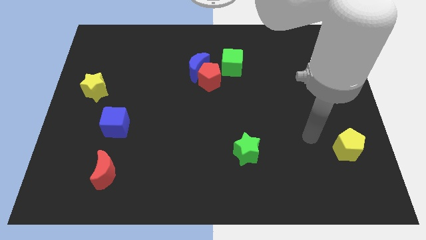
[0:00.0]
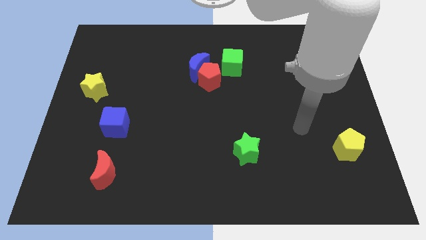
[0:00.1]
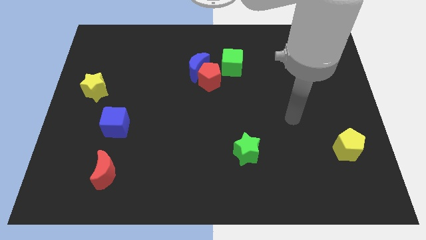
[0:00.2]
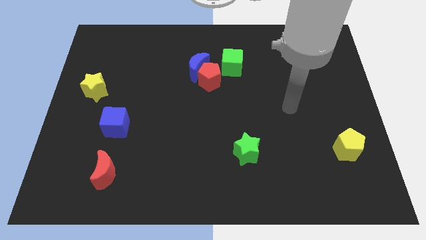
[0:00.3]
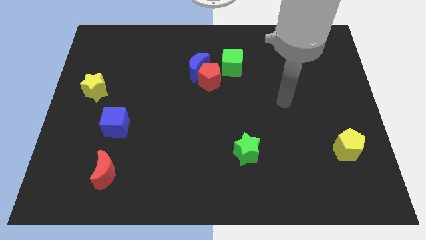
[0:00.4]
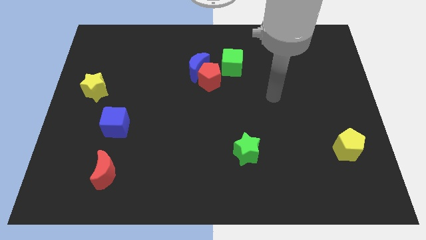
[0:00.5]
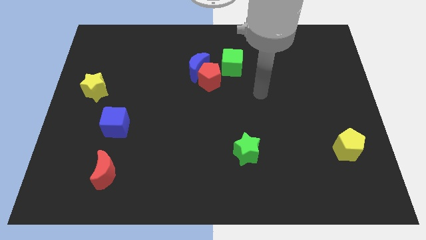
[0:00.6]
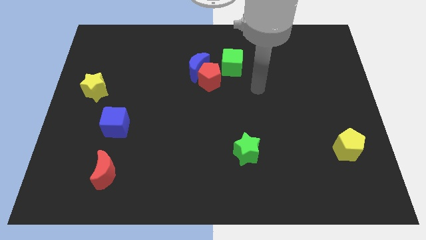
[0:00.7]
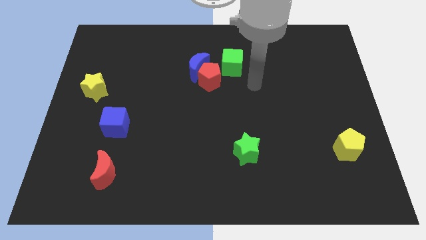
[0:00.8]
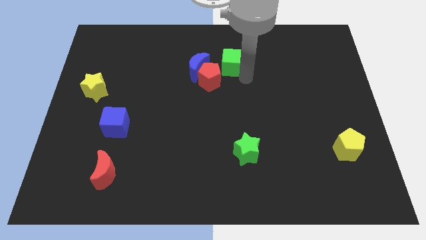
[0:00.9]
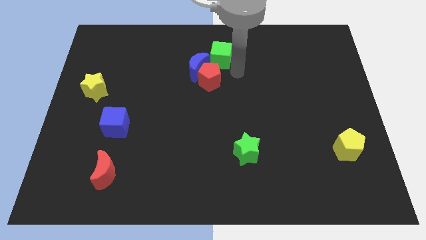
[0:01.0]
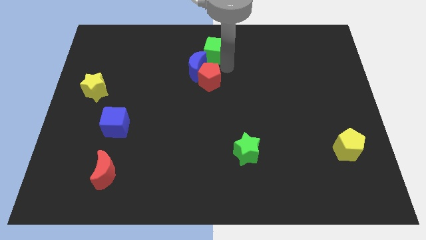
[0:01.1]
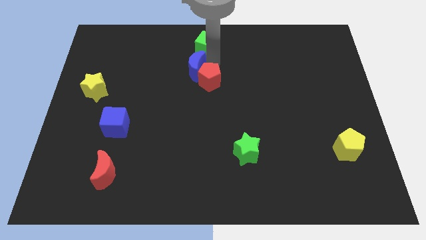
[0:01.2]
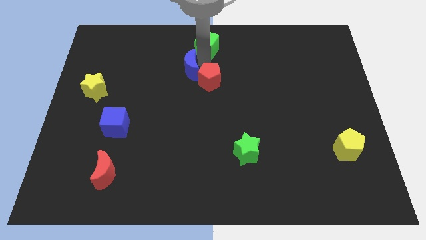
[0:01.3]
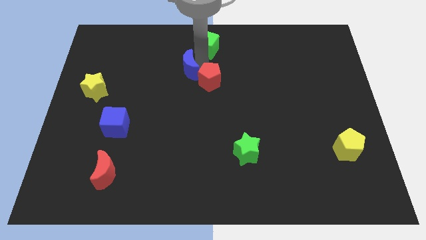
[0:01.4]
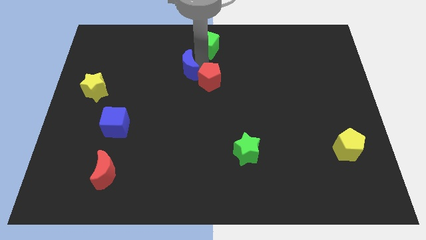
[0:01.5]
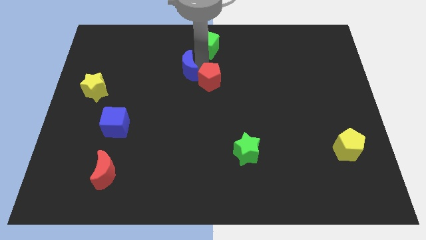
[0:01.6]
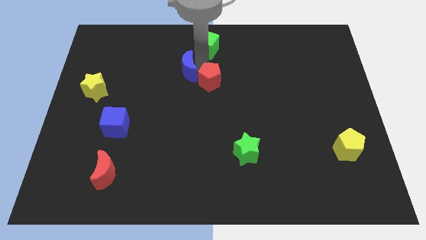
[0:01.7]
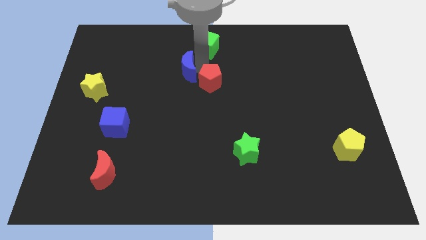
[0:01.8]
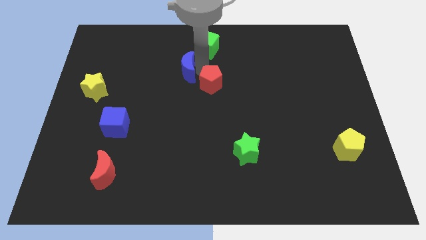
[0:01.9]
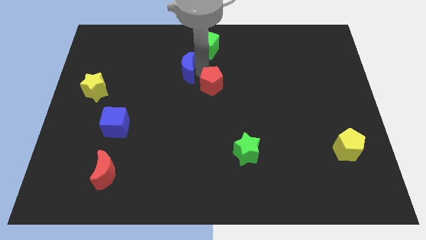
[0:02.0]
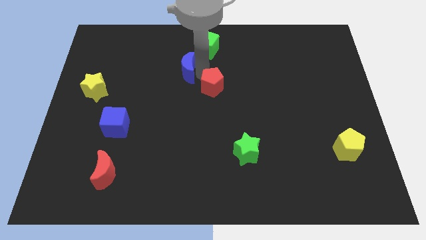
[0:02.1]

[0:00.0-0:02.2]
pull the red pentagon apart from the blue moon and green cube

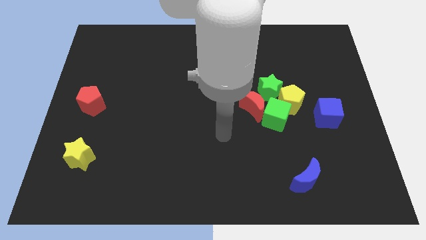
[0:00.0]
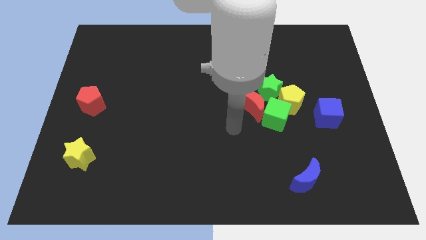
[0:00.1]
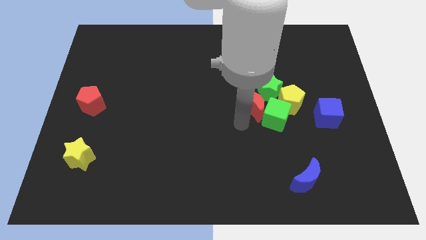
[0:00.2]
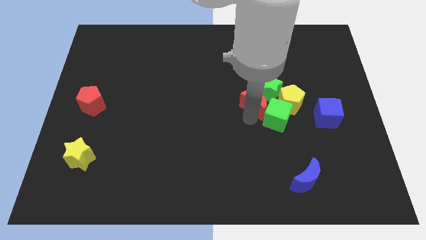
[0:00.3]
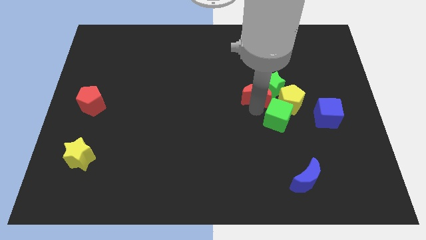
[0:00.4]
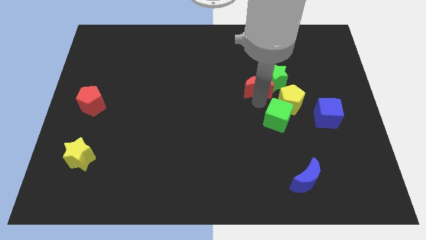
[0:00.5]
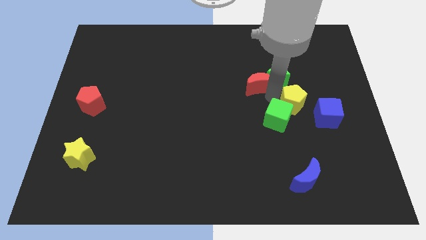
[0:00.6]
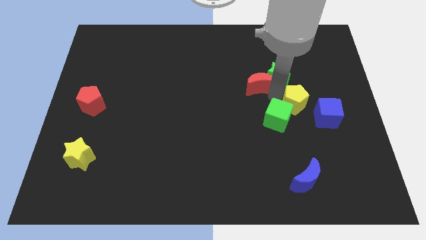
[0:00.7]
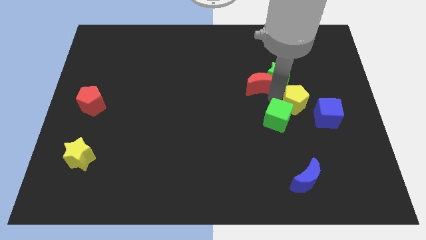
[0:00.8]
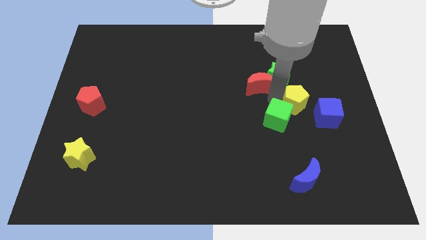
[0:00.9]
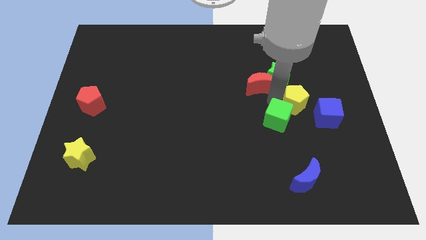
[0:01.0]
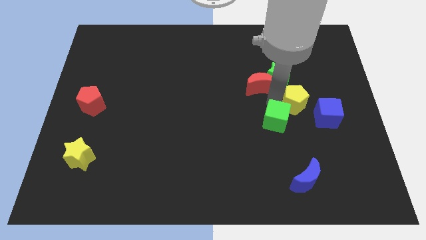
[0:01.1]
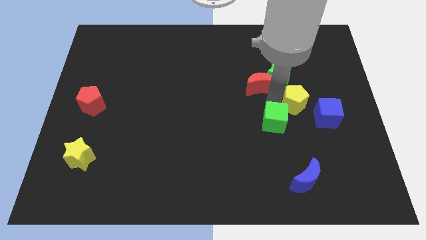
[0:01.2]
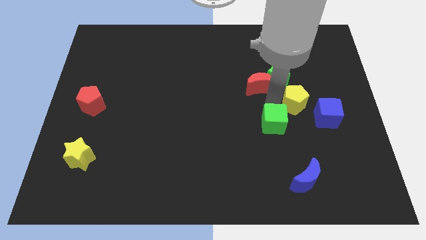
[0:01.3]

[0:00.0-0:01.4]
move the green cube away from the clump

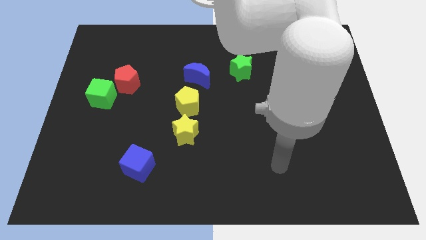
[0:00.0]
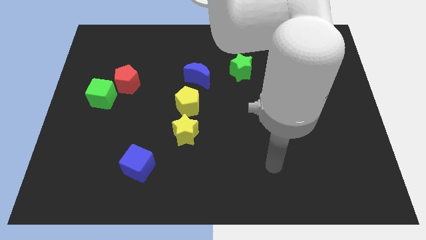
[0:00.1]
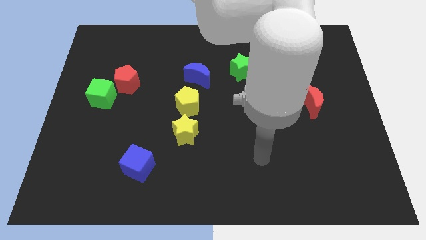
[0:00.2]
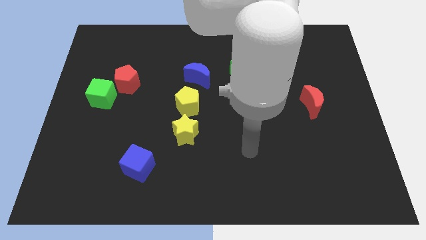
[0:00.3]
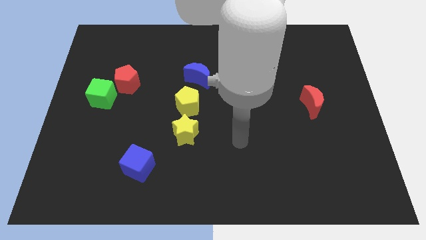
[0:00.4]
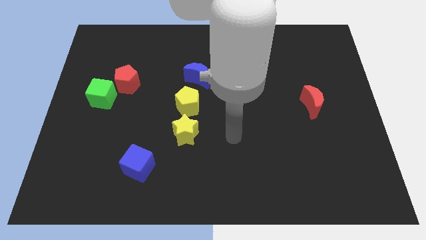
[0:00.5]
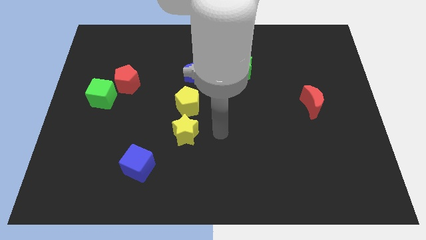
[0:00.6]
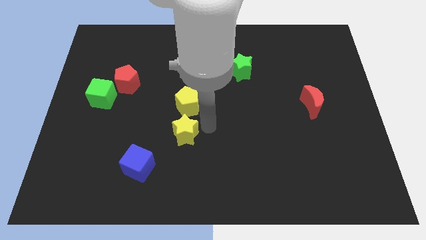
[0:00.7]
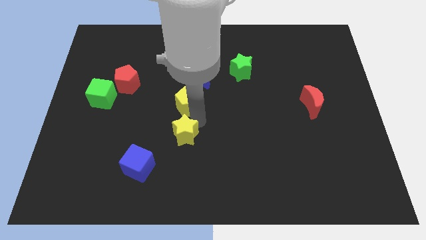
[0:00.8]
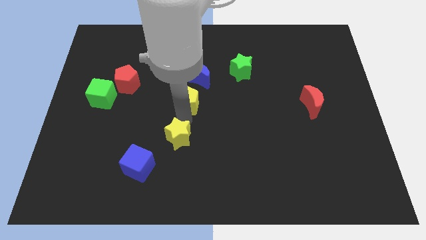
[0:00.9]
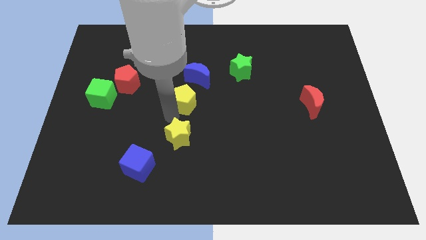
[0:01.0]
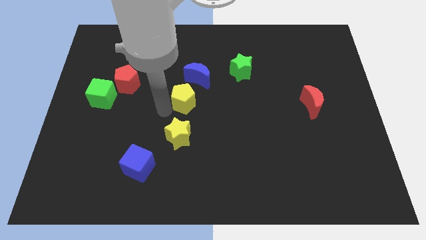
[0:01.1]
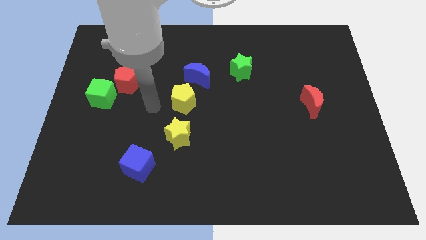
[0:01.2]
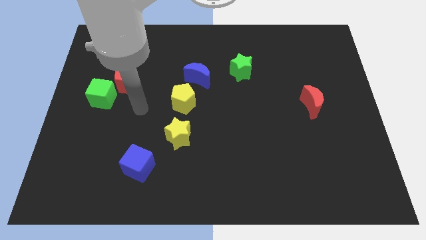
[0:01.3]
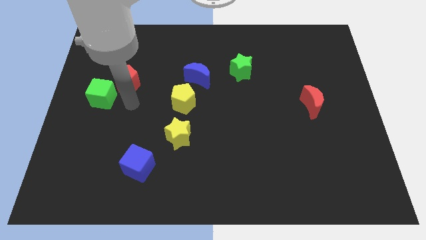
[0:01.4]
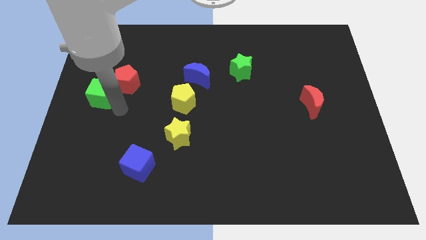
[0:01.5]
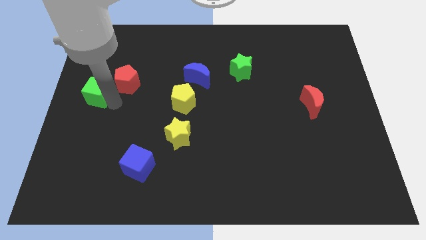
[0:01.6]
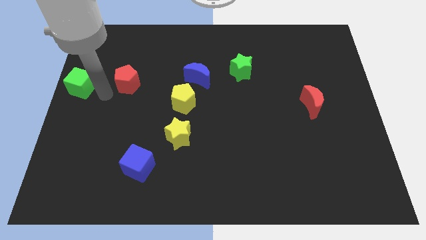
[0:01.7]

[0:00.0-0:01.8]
separate the red pentagon from the green cube

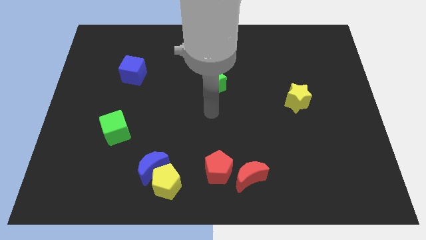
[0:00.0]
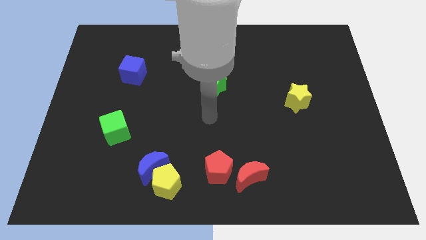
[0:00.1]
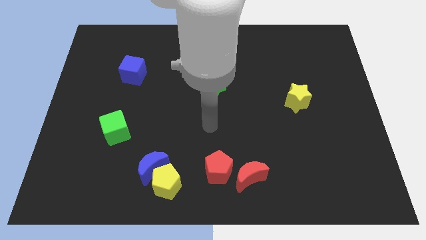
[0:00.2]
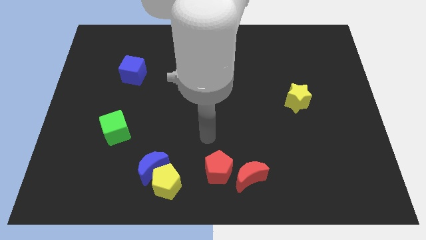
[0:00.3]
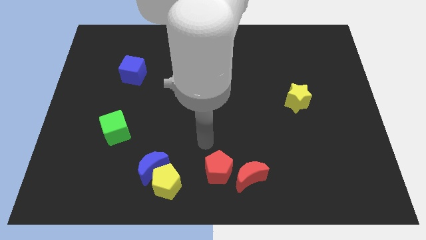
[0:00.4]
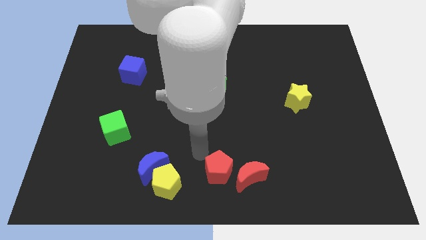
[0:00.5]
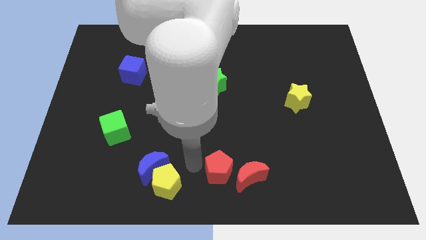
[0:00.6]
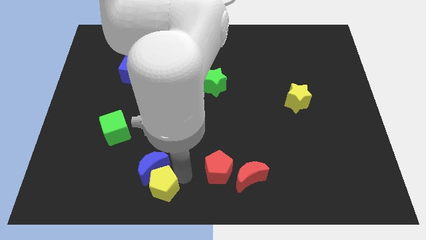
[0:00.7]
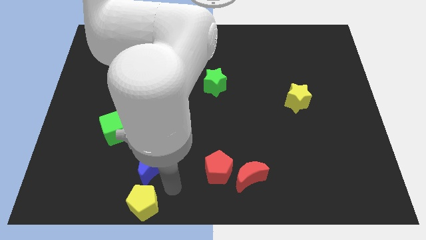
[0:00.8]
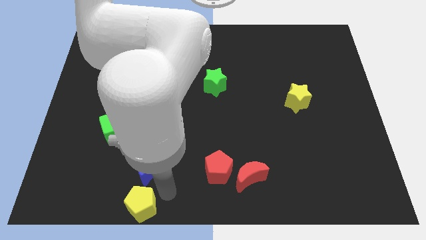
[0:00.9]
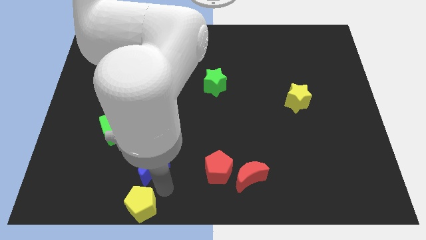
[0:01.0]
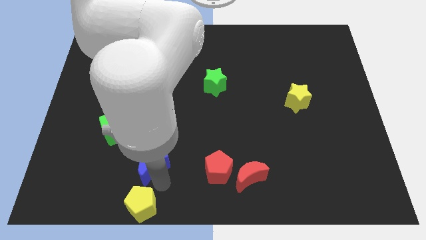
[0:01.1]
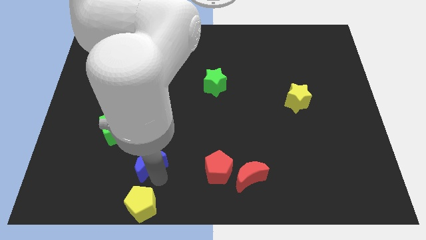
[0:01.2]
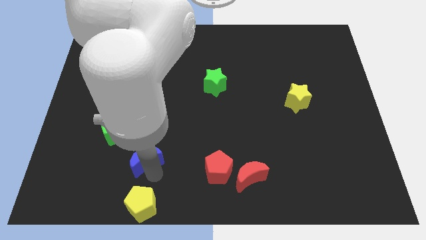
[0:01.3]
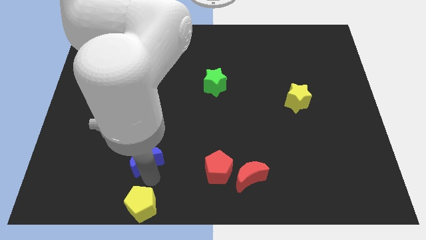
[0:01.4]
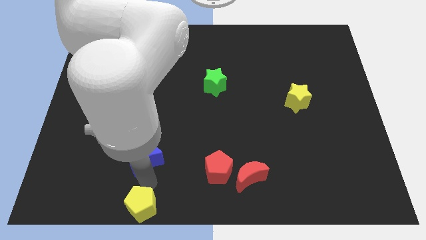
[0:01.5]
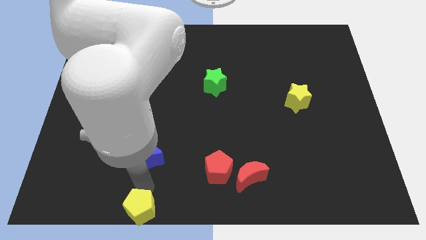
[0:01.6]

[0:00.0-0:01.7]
separate the blue moon from the yellow pentagon

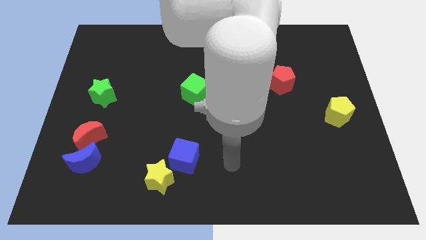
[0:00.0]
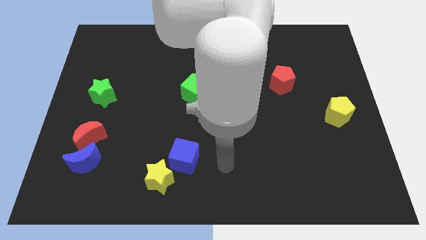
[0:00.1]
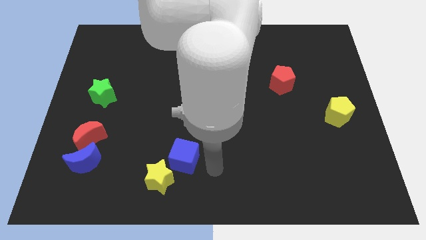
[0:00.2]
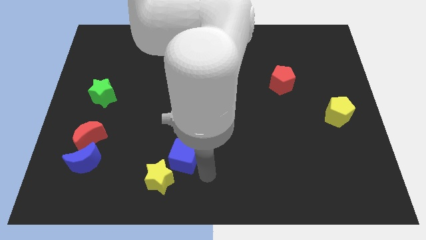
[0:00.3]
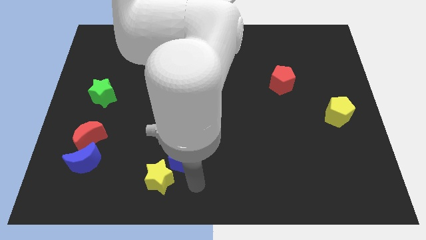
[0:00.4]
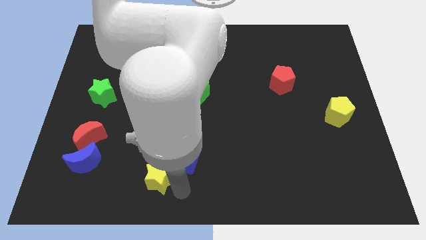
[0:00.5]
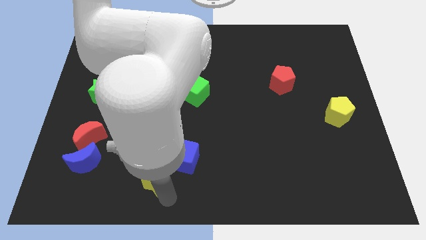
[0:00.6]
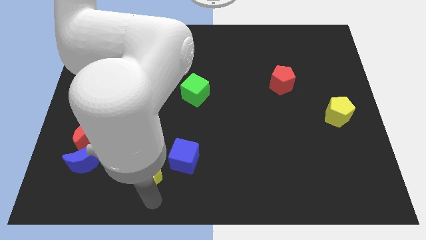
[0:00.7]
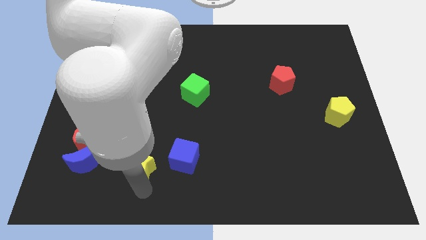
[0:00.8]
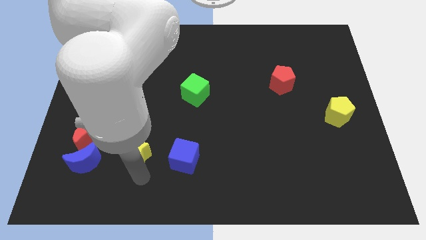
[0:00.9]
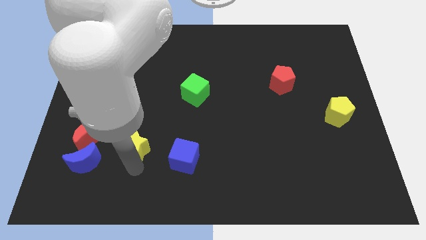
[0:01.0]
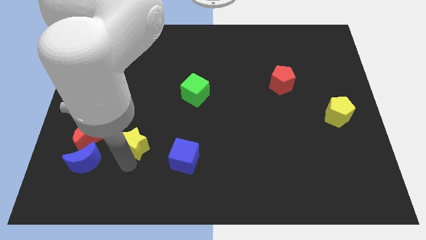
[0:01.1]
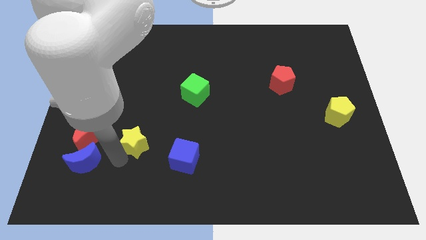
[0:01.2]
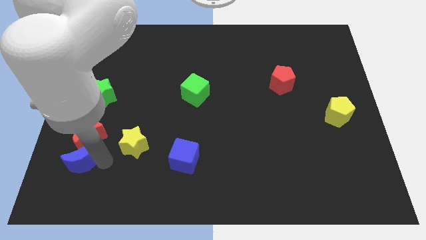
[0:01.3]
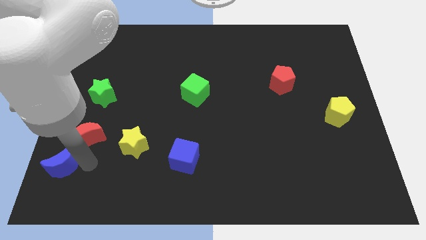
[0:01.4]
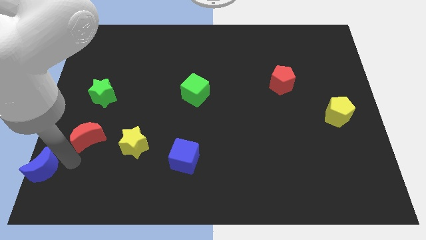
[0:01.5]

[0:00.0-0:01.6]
move the red moon away from the blue moon

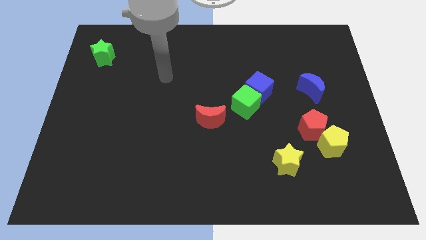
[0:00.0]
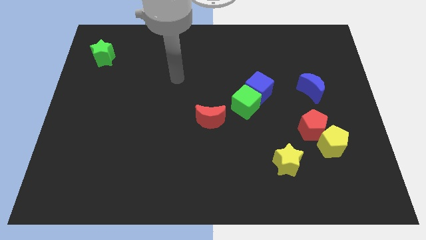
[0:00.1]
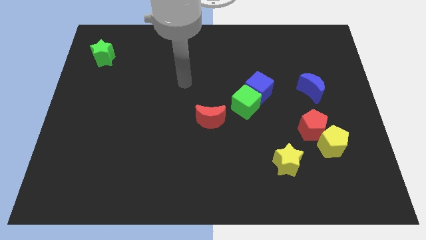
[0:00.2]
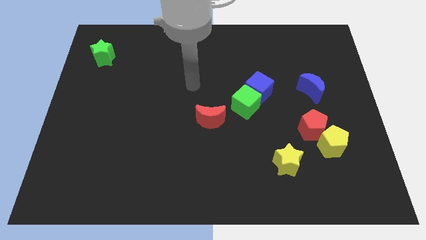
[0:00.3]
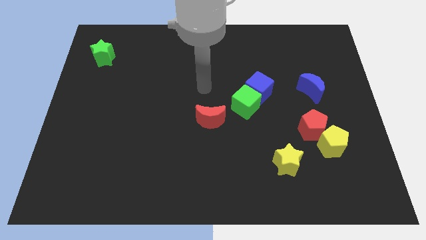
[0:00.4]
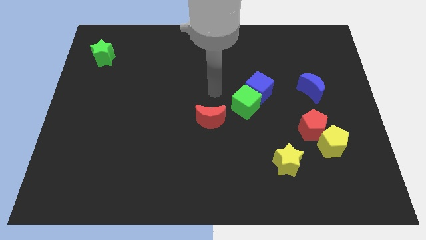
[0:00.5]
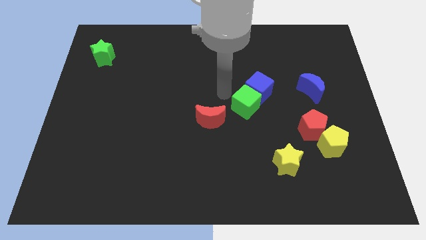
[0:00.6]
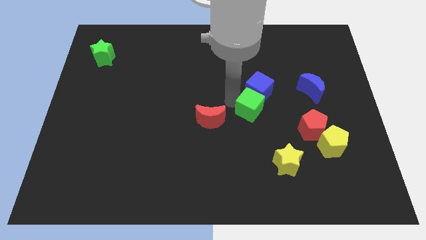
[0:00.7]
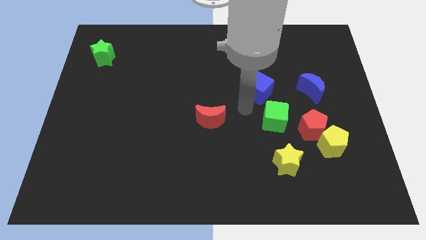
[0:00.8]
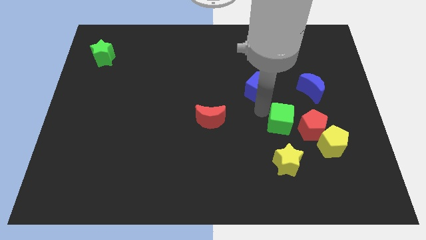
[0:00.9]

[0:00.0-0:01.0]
separate the blue cube from the green cube
